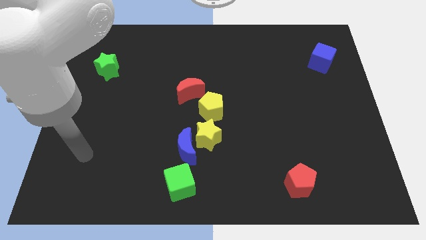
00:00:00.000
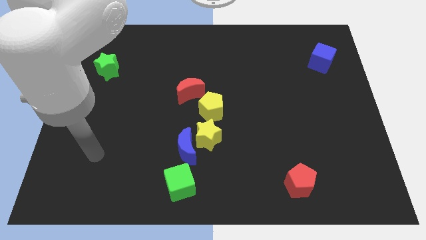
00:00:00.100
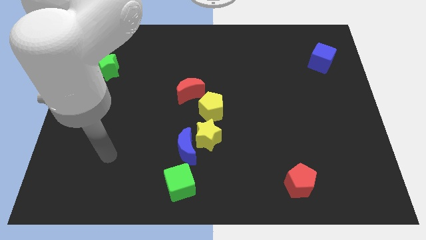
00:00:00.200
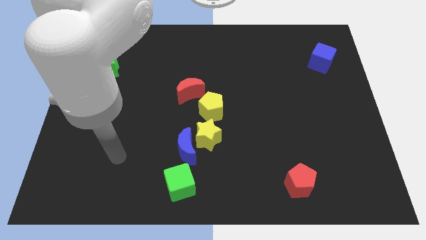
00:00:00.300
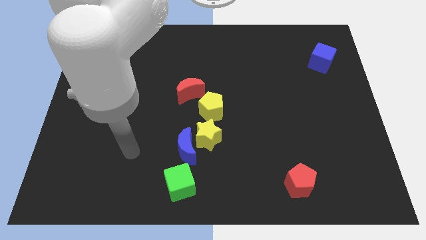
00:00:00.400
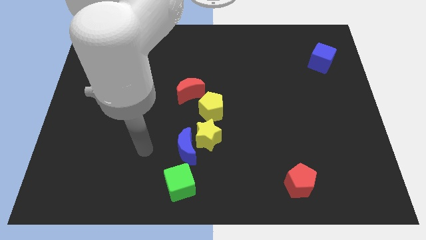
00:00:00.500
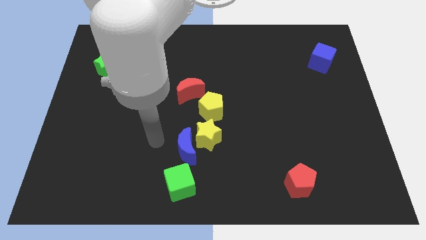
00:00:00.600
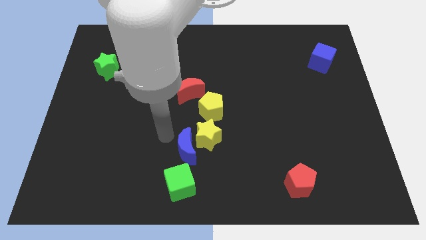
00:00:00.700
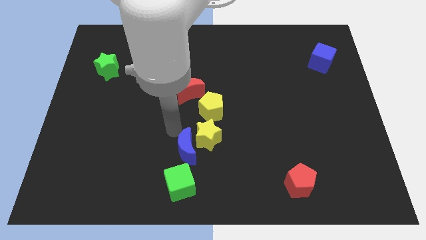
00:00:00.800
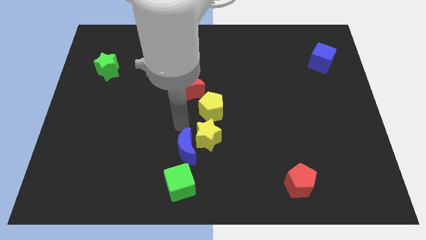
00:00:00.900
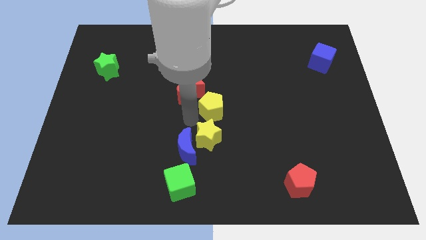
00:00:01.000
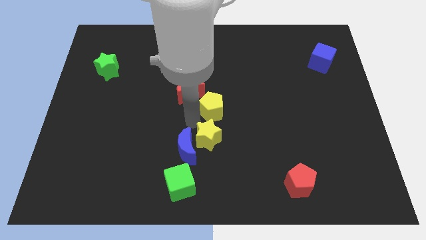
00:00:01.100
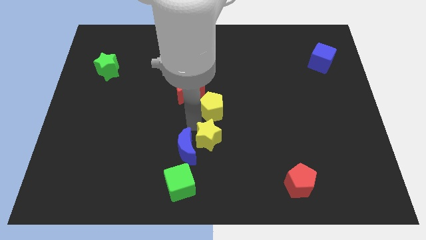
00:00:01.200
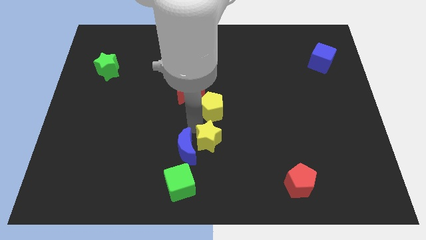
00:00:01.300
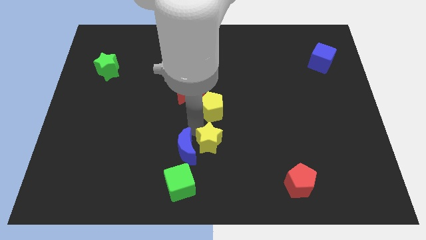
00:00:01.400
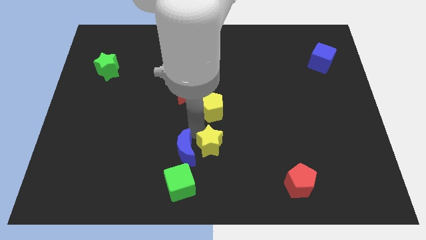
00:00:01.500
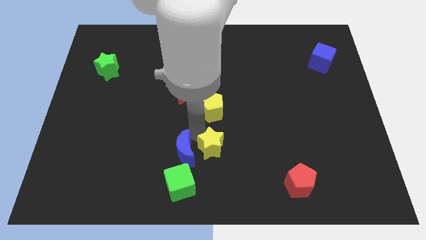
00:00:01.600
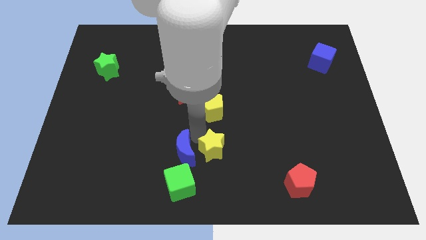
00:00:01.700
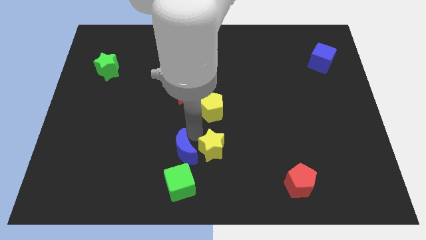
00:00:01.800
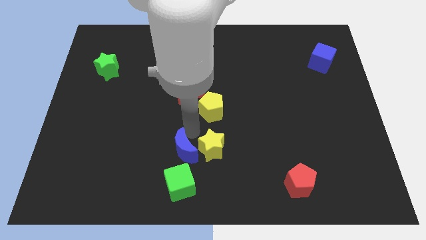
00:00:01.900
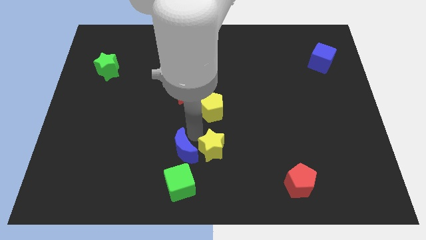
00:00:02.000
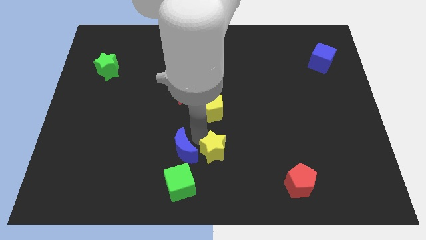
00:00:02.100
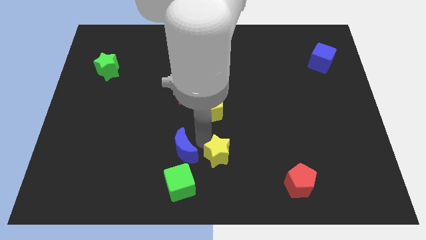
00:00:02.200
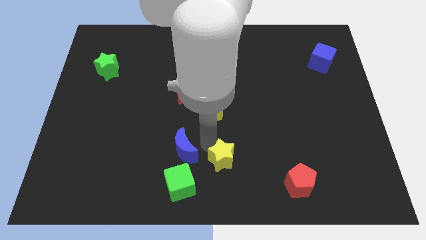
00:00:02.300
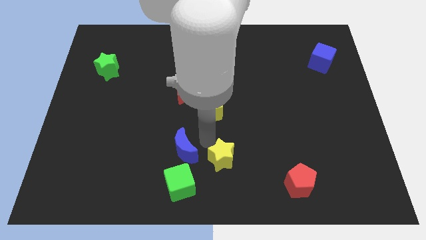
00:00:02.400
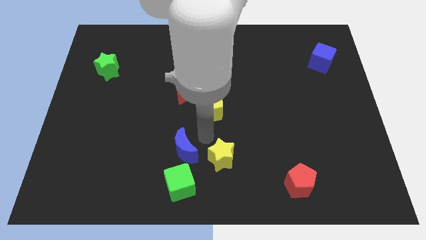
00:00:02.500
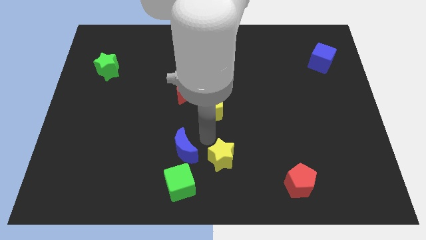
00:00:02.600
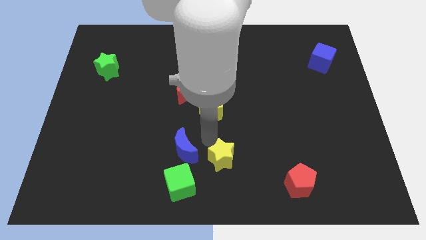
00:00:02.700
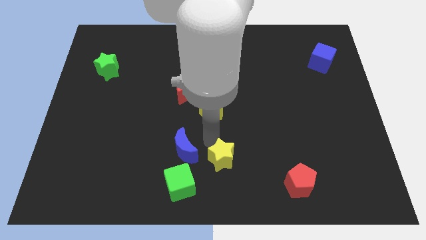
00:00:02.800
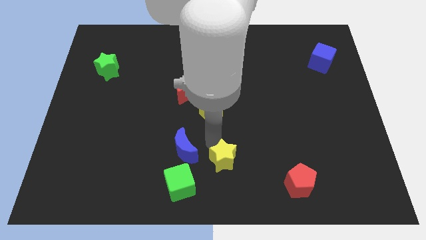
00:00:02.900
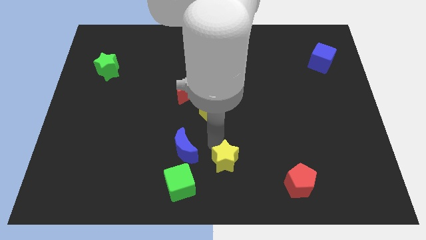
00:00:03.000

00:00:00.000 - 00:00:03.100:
pull the yellow star apart from the blue moon and yellow pentagon

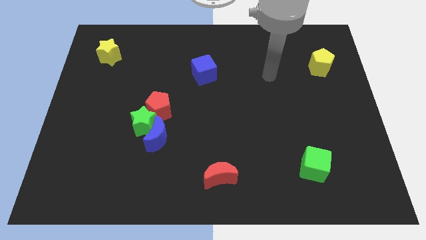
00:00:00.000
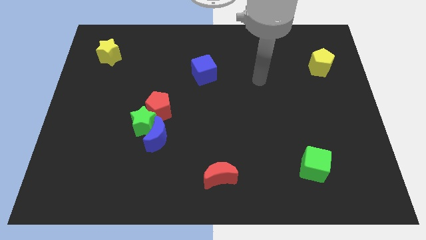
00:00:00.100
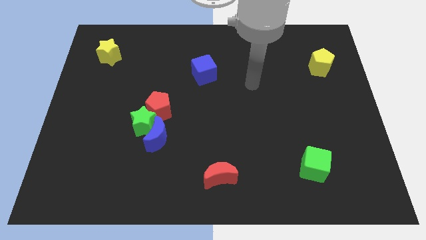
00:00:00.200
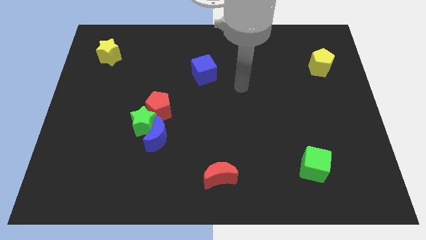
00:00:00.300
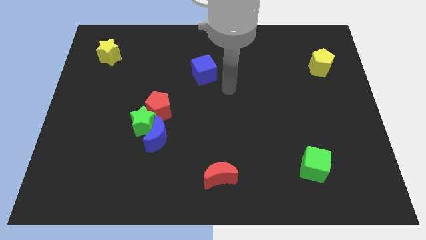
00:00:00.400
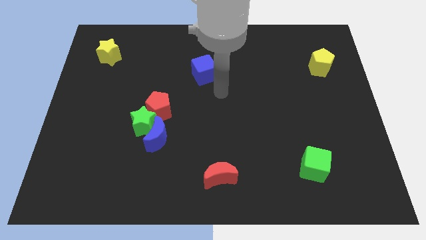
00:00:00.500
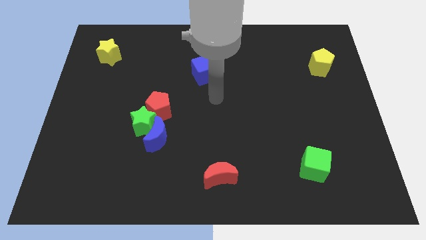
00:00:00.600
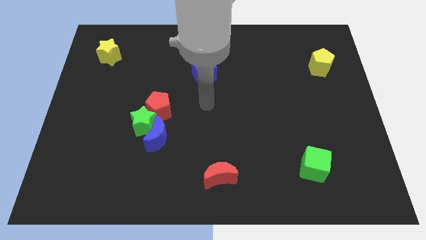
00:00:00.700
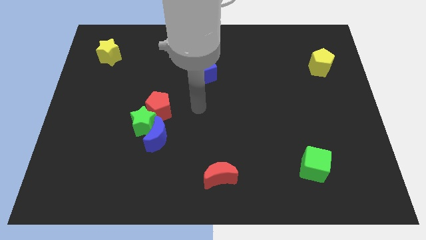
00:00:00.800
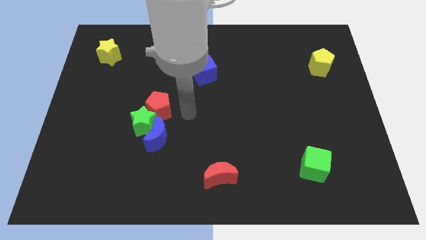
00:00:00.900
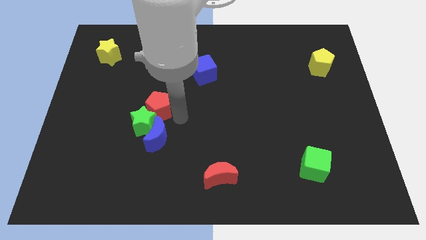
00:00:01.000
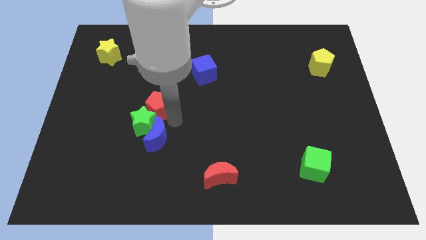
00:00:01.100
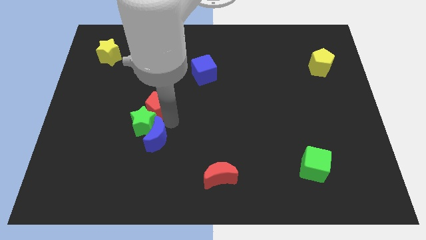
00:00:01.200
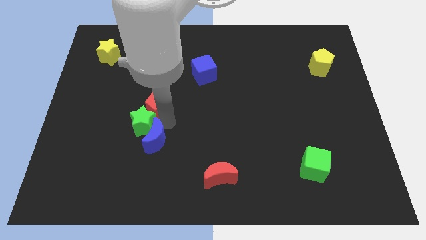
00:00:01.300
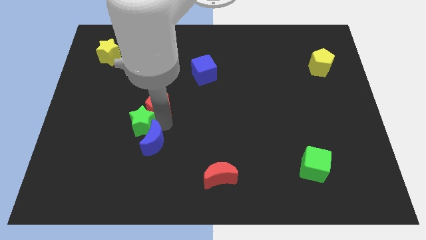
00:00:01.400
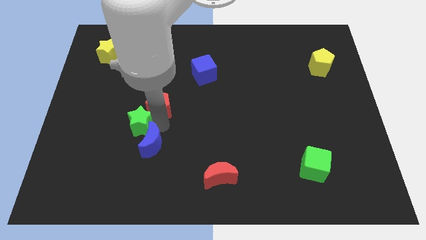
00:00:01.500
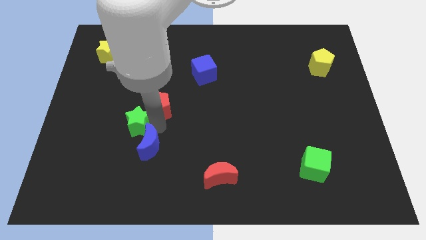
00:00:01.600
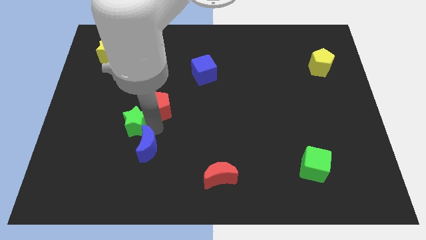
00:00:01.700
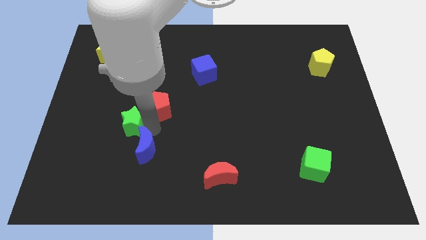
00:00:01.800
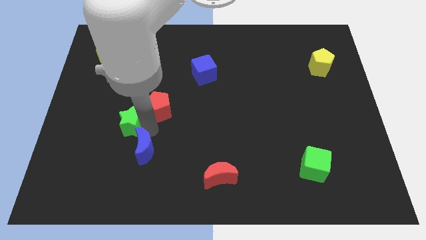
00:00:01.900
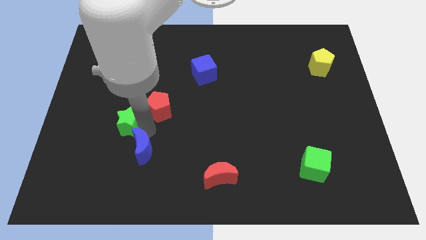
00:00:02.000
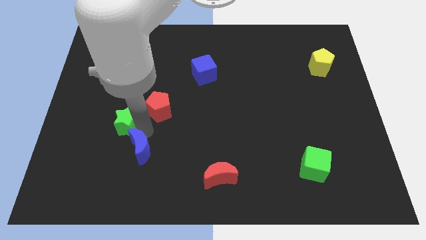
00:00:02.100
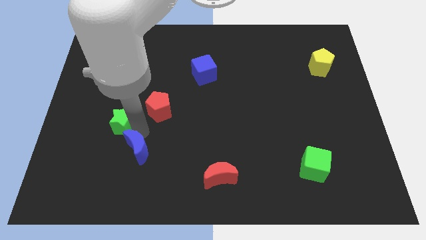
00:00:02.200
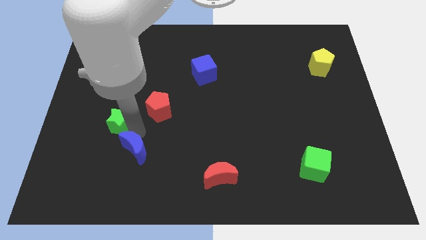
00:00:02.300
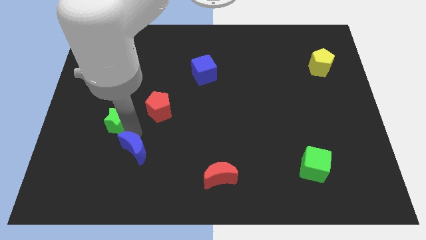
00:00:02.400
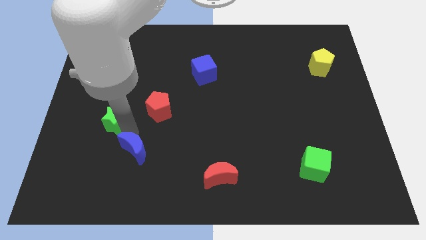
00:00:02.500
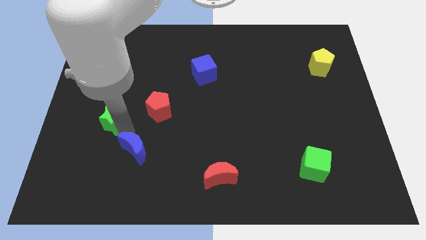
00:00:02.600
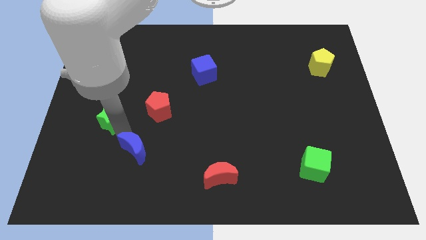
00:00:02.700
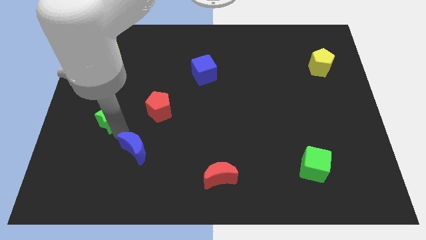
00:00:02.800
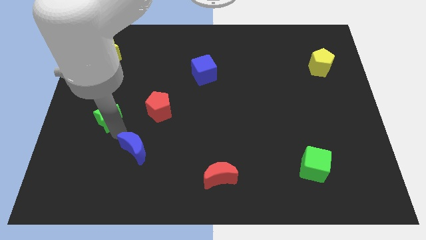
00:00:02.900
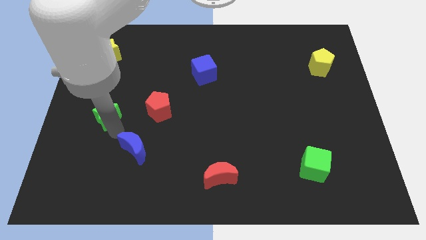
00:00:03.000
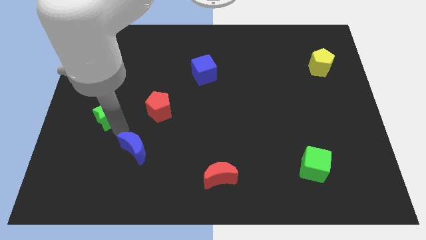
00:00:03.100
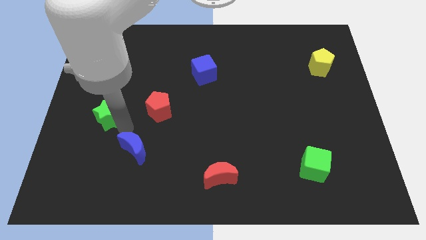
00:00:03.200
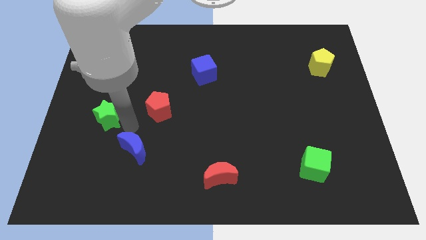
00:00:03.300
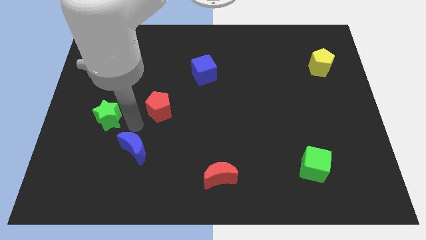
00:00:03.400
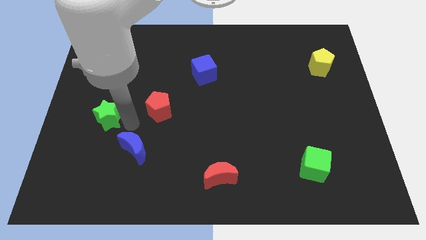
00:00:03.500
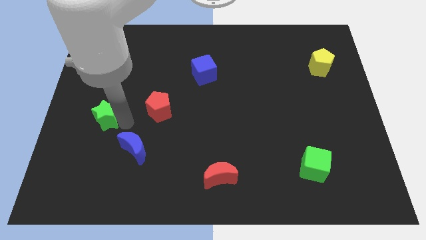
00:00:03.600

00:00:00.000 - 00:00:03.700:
move the green star away from the blue moon and red pentagon

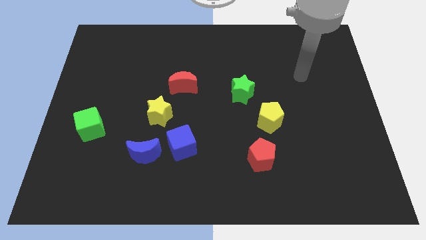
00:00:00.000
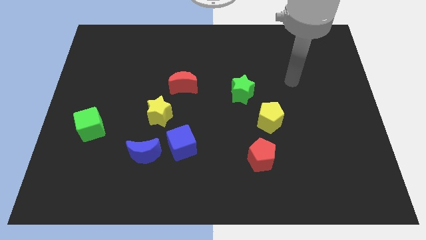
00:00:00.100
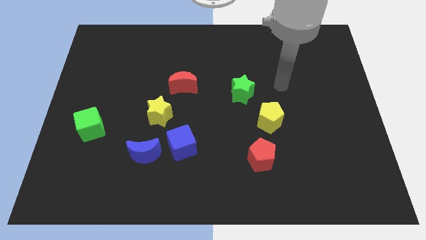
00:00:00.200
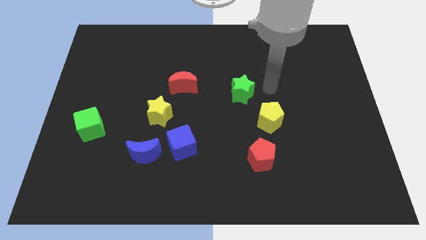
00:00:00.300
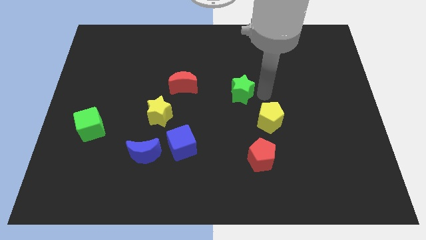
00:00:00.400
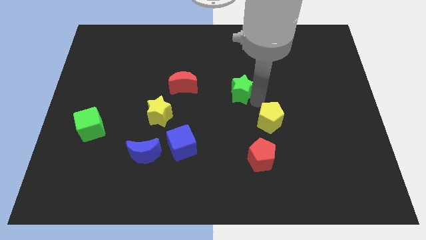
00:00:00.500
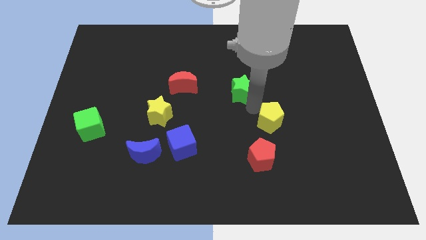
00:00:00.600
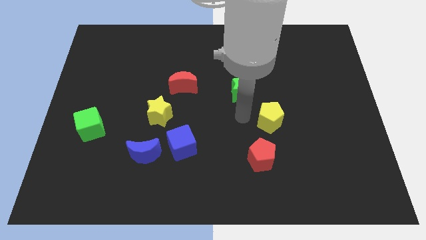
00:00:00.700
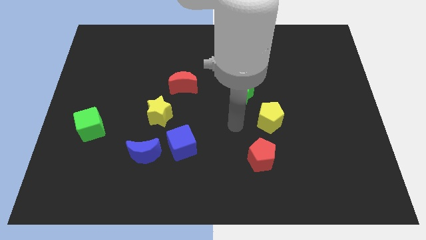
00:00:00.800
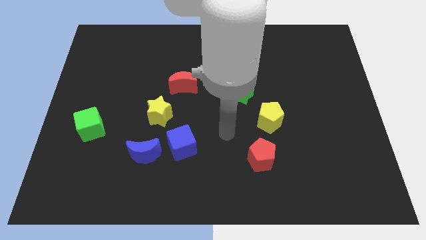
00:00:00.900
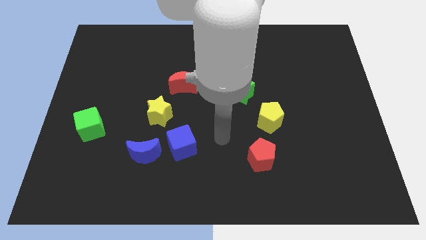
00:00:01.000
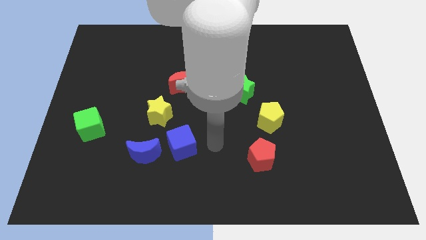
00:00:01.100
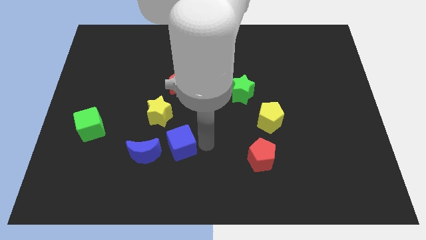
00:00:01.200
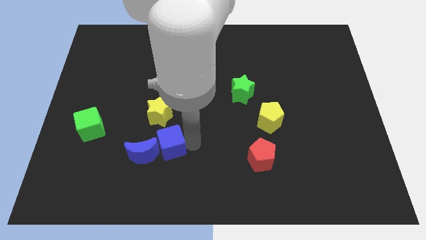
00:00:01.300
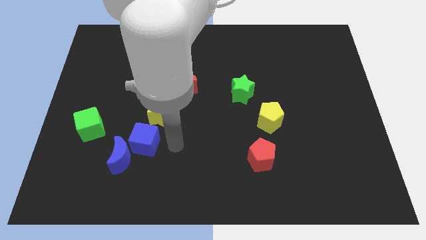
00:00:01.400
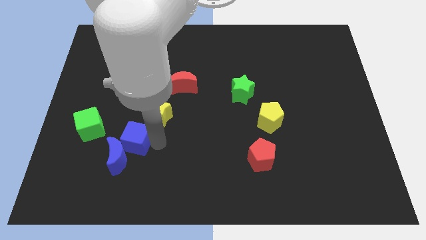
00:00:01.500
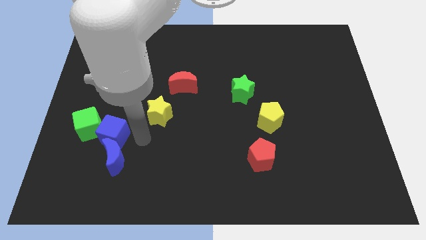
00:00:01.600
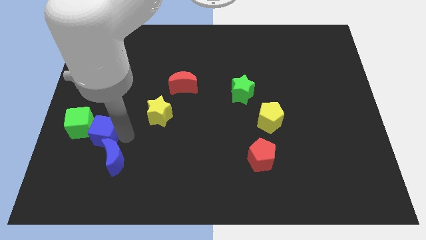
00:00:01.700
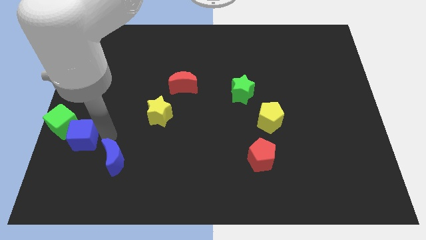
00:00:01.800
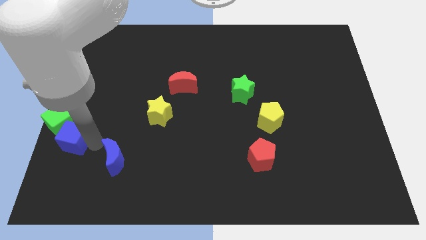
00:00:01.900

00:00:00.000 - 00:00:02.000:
move the blue moon away from the blue cube

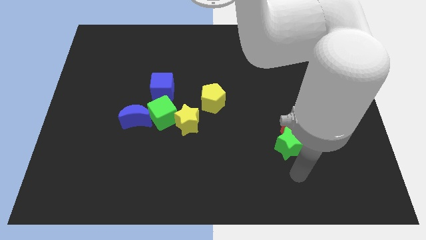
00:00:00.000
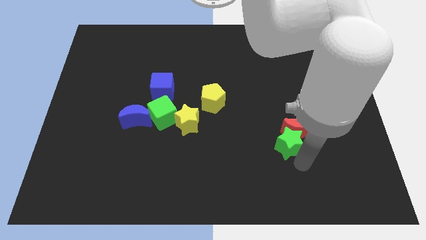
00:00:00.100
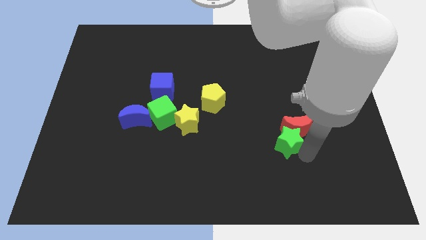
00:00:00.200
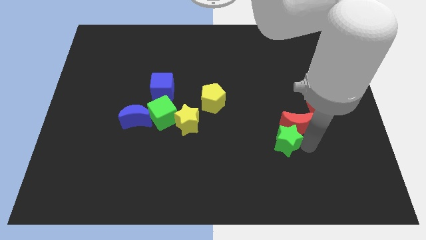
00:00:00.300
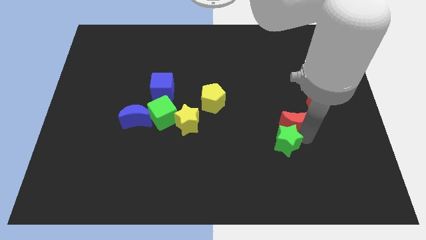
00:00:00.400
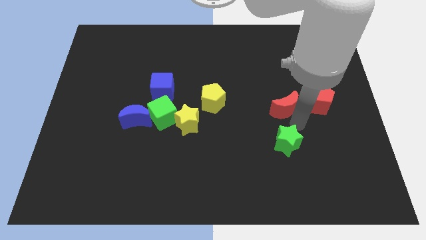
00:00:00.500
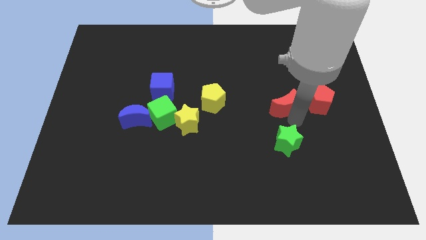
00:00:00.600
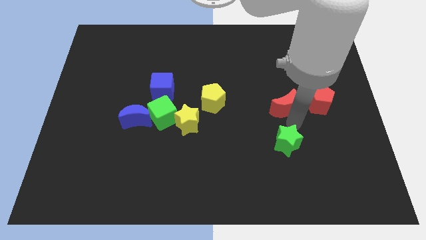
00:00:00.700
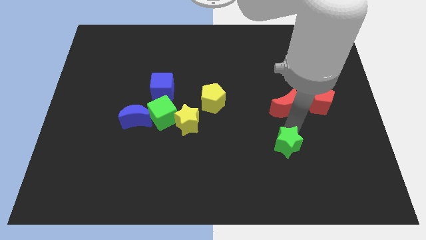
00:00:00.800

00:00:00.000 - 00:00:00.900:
pull the green star apart from the red moon
